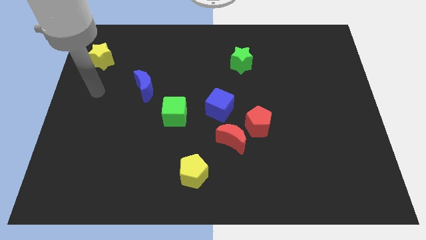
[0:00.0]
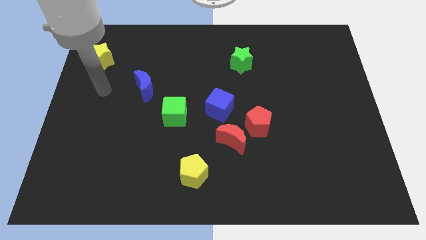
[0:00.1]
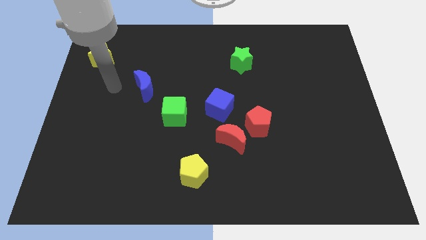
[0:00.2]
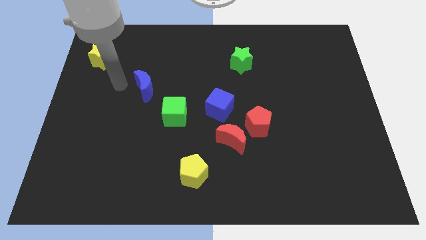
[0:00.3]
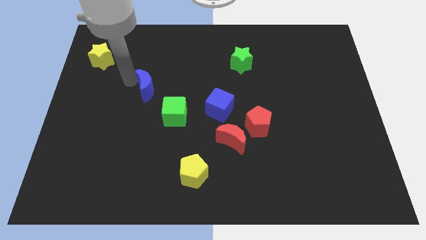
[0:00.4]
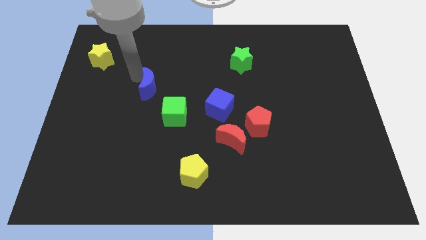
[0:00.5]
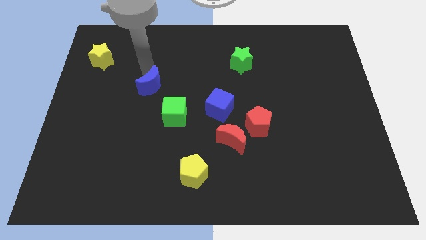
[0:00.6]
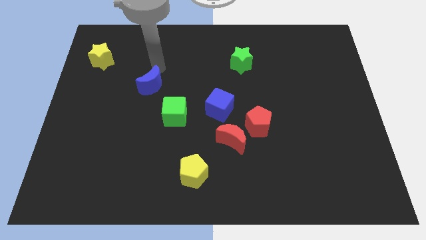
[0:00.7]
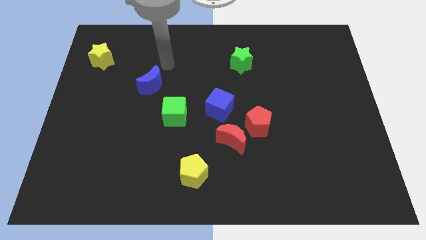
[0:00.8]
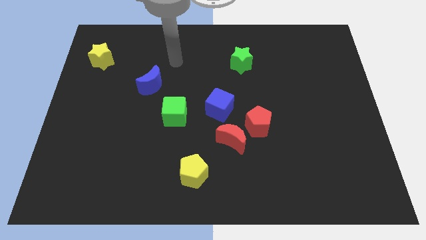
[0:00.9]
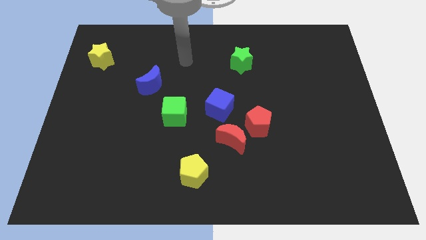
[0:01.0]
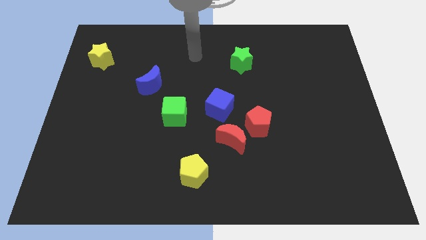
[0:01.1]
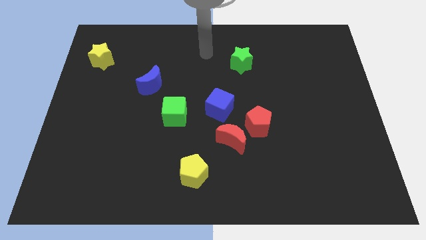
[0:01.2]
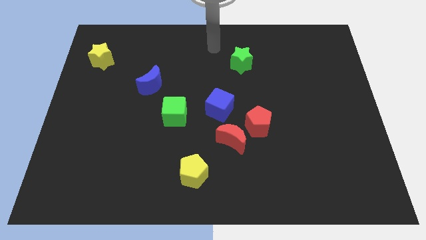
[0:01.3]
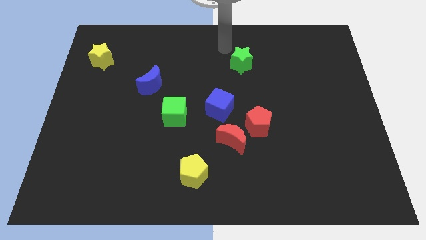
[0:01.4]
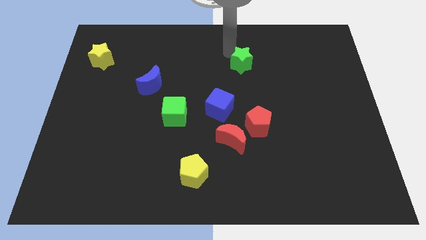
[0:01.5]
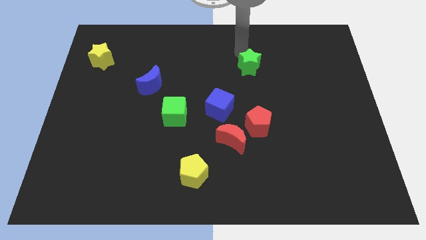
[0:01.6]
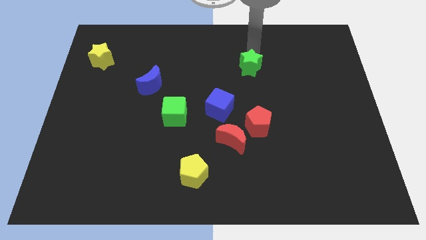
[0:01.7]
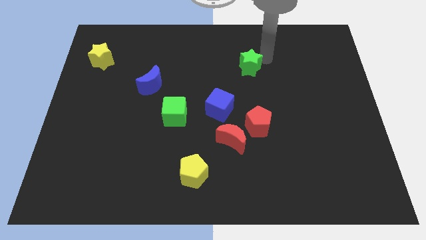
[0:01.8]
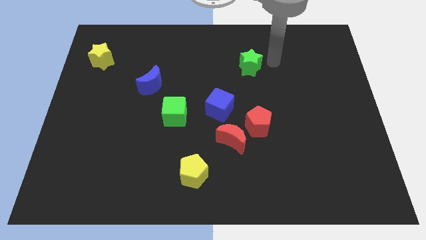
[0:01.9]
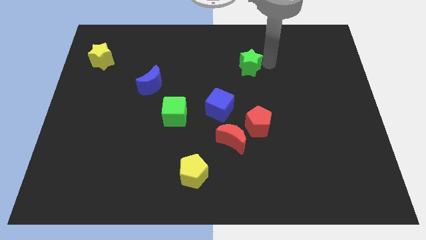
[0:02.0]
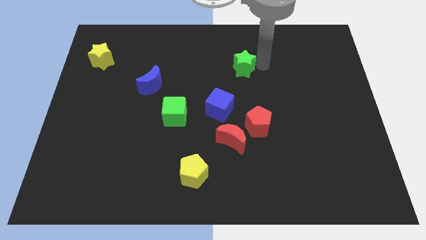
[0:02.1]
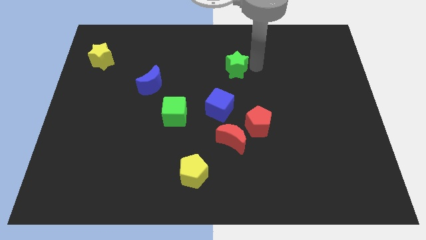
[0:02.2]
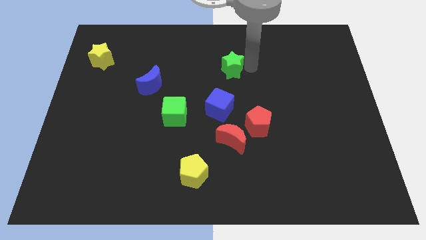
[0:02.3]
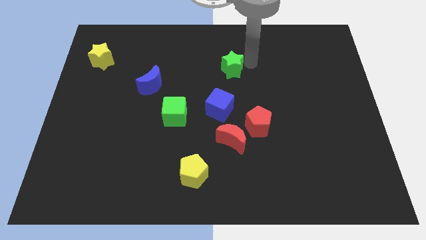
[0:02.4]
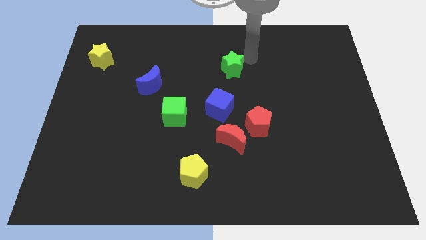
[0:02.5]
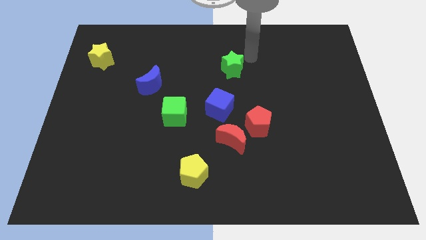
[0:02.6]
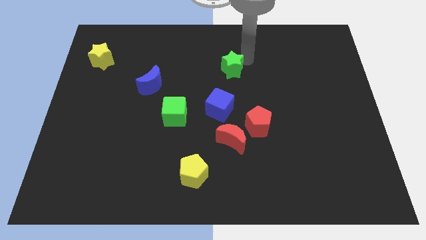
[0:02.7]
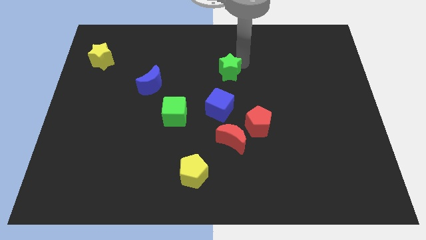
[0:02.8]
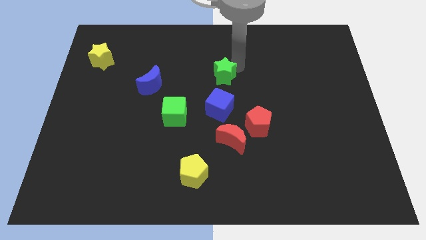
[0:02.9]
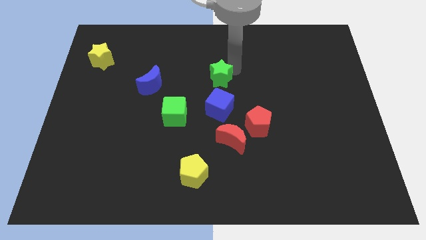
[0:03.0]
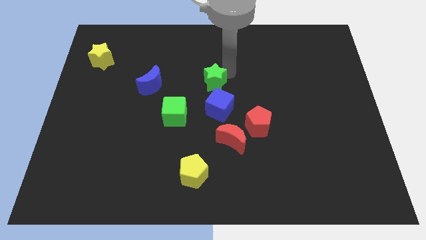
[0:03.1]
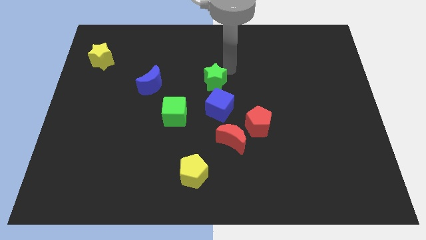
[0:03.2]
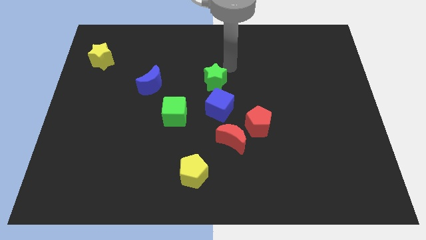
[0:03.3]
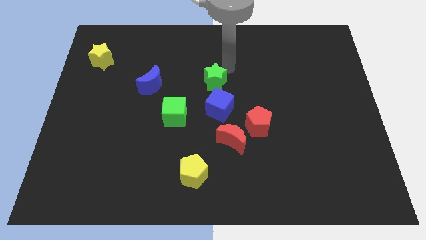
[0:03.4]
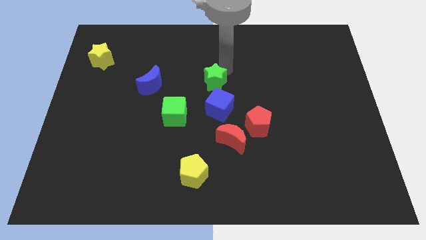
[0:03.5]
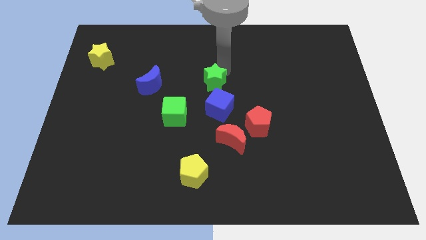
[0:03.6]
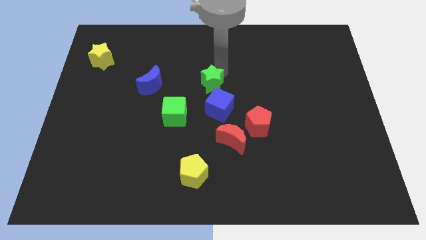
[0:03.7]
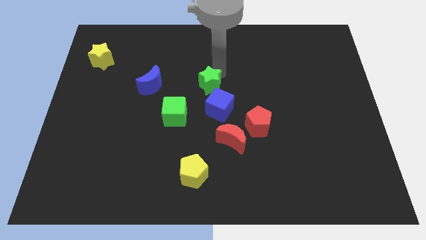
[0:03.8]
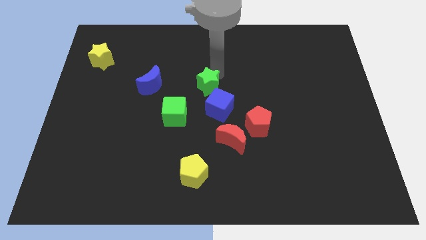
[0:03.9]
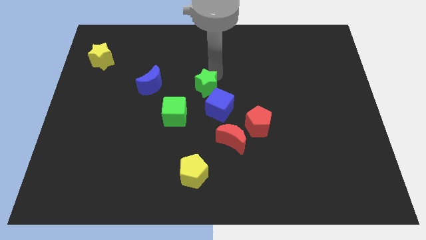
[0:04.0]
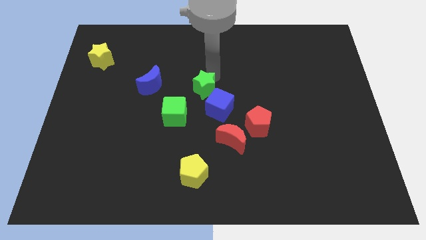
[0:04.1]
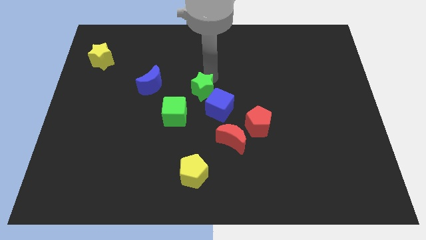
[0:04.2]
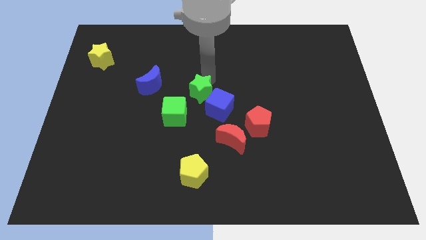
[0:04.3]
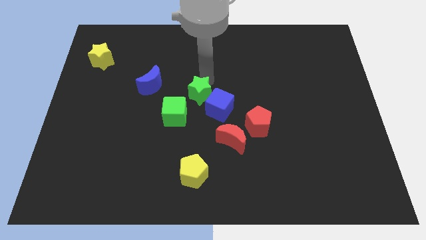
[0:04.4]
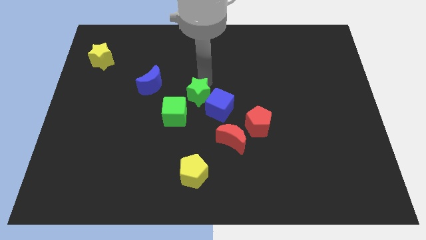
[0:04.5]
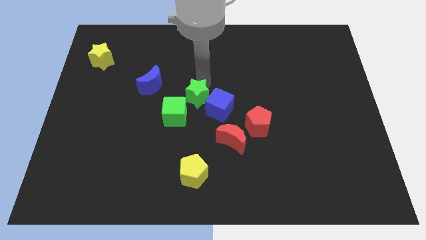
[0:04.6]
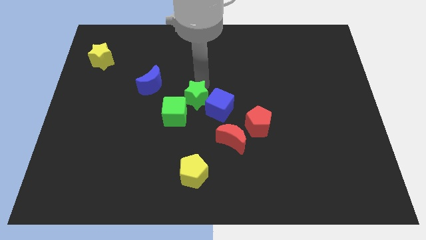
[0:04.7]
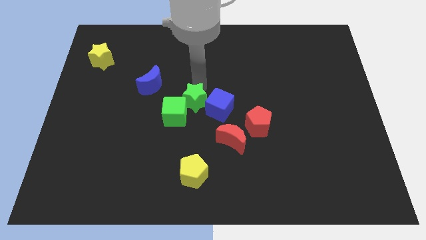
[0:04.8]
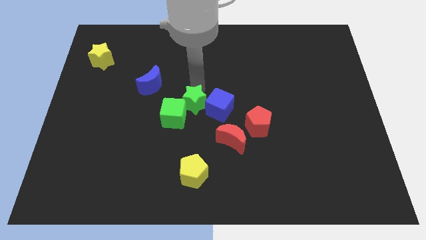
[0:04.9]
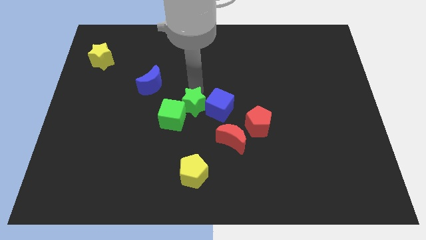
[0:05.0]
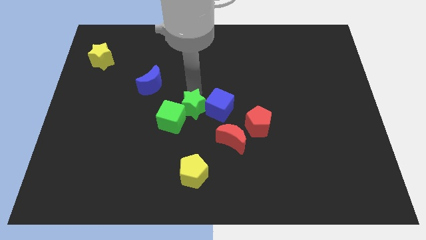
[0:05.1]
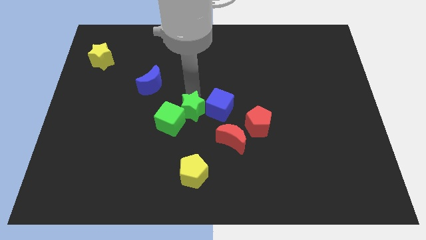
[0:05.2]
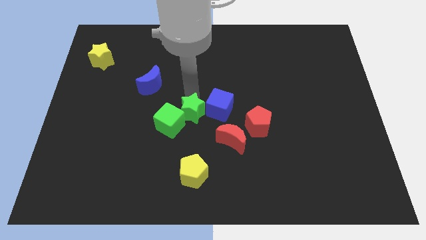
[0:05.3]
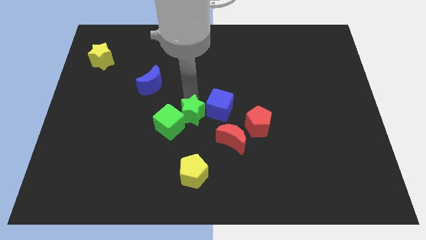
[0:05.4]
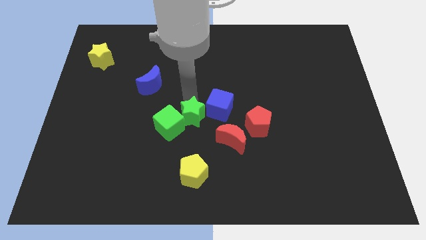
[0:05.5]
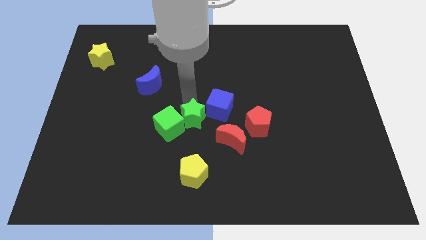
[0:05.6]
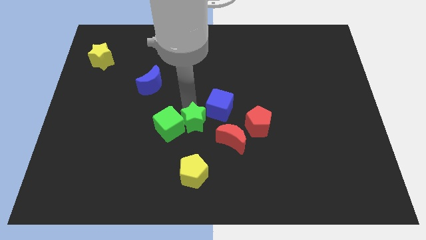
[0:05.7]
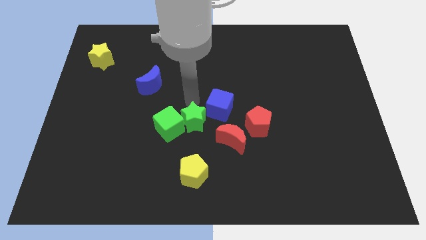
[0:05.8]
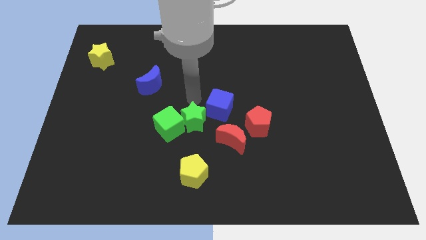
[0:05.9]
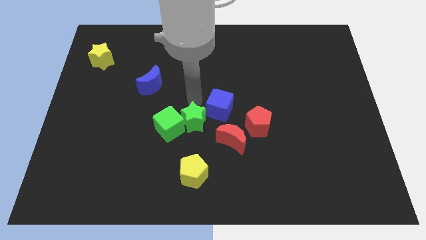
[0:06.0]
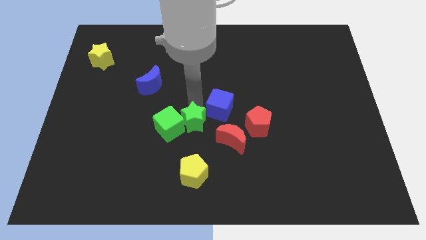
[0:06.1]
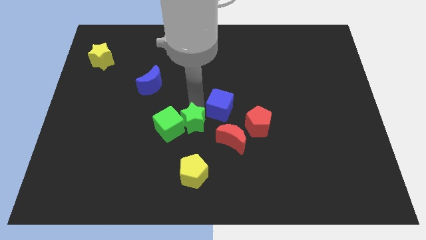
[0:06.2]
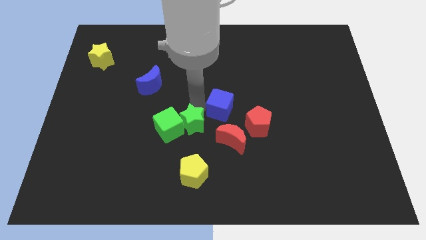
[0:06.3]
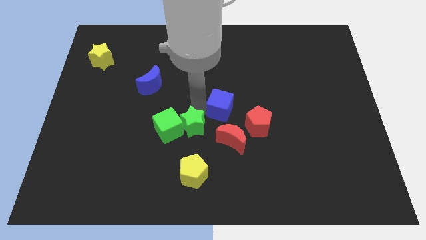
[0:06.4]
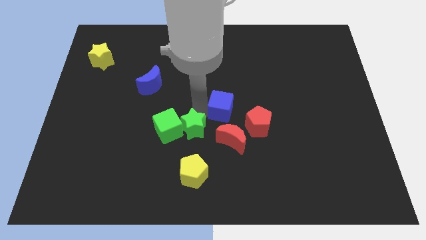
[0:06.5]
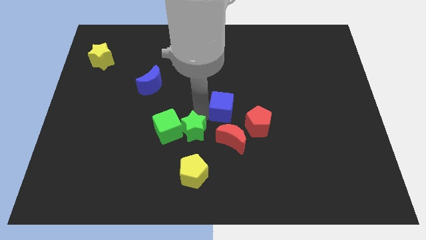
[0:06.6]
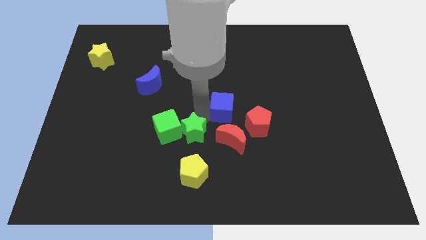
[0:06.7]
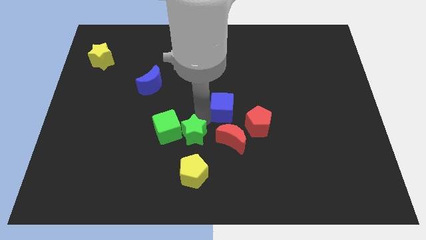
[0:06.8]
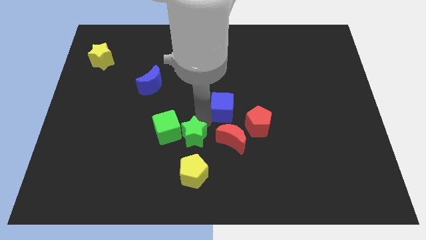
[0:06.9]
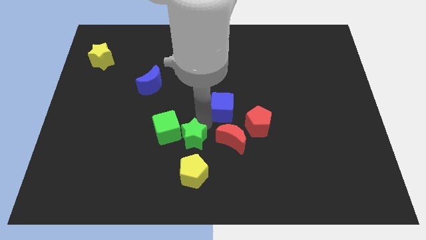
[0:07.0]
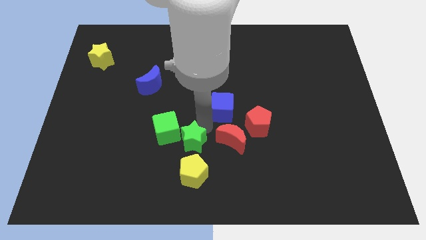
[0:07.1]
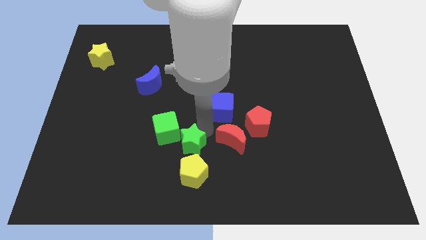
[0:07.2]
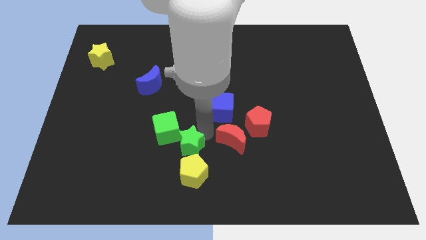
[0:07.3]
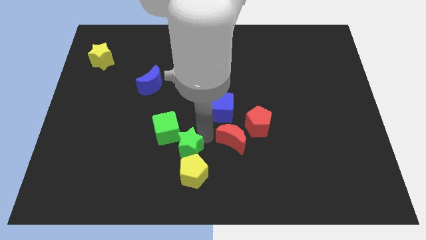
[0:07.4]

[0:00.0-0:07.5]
put the green star to the yellow pentagon
